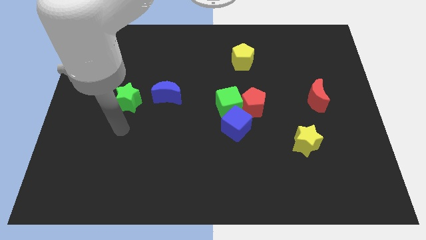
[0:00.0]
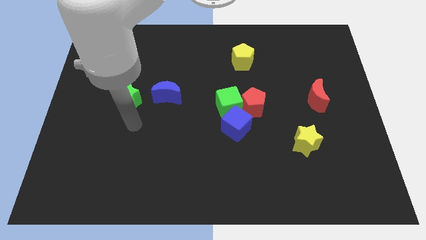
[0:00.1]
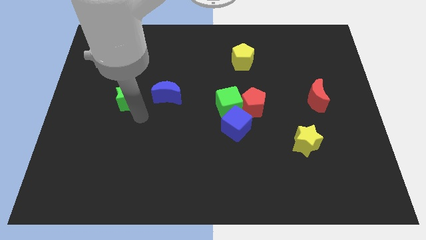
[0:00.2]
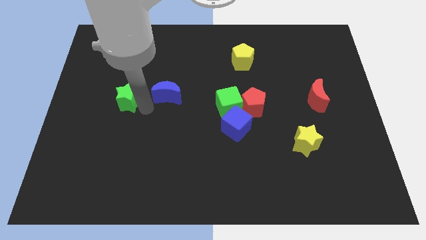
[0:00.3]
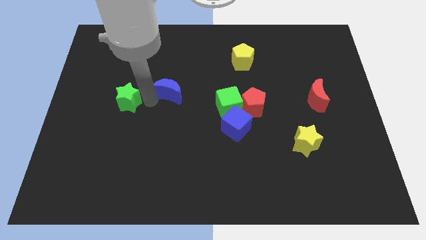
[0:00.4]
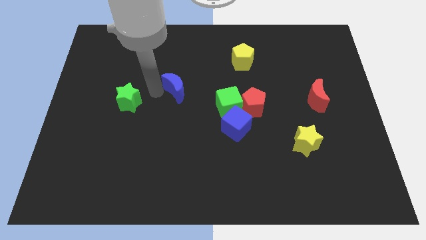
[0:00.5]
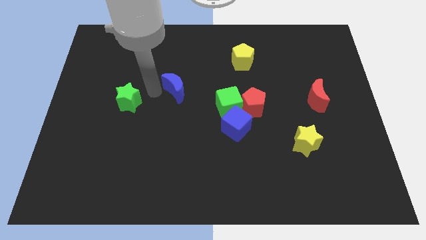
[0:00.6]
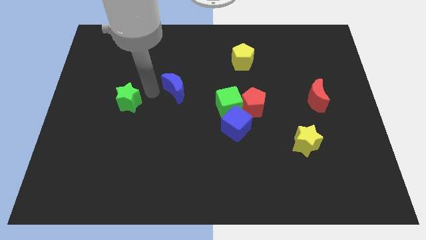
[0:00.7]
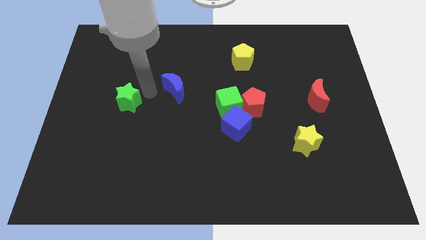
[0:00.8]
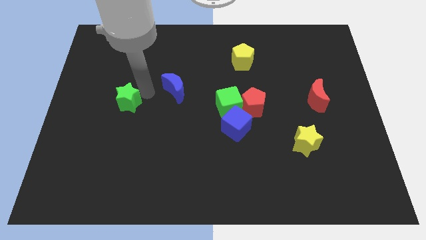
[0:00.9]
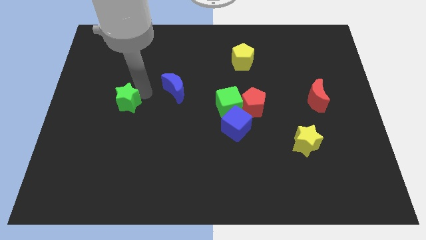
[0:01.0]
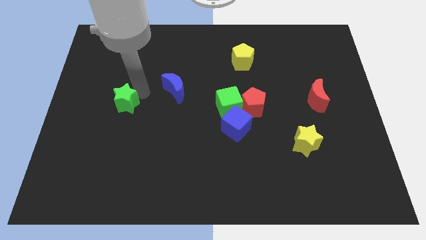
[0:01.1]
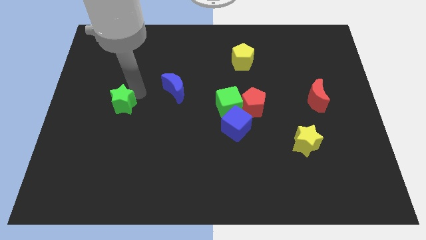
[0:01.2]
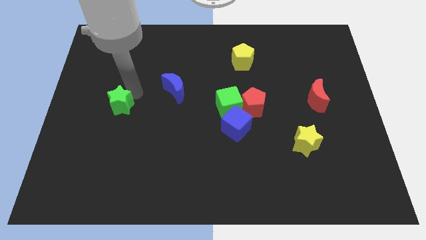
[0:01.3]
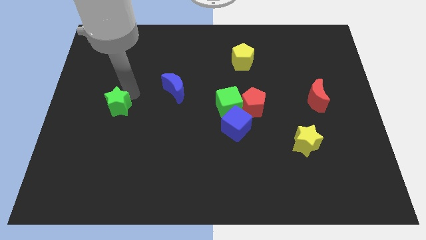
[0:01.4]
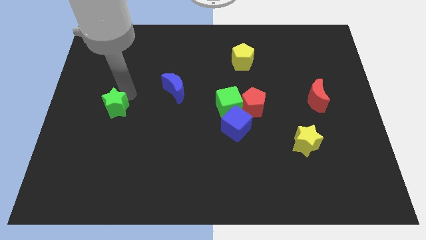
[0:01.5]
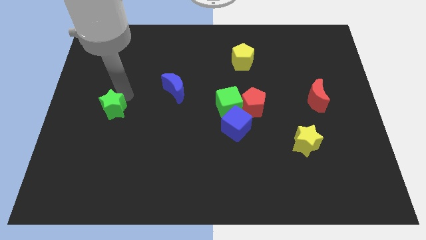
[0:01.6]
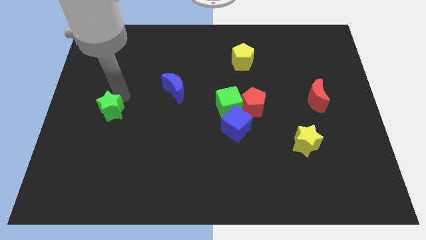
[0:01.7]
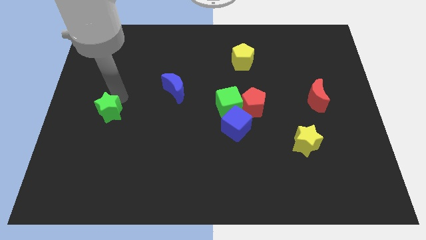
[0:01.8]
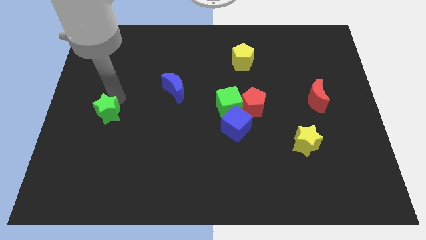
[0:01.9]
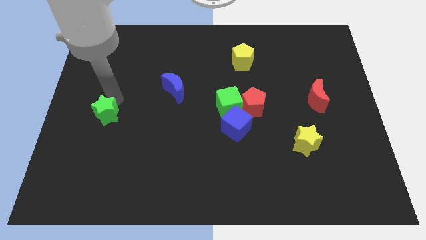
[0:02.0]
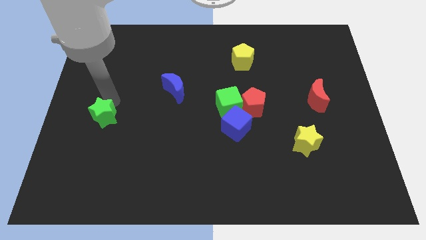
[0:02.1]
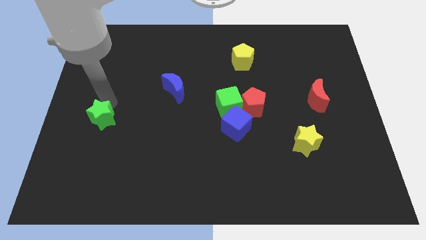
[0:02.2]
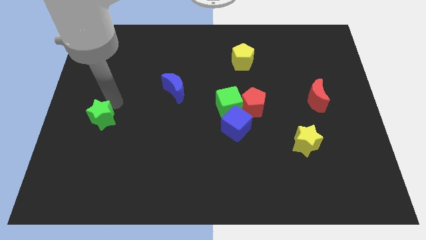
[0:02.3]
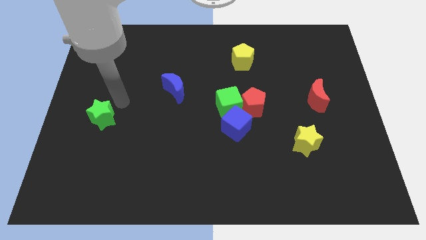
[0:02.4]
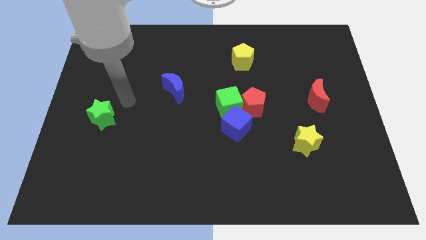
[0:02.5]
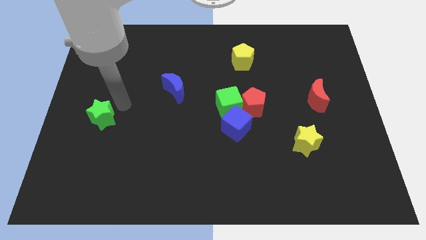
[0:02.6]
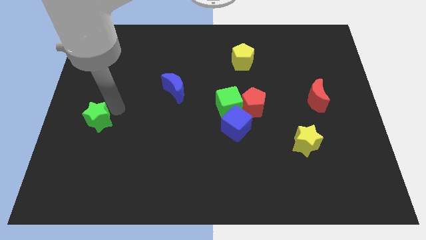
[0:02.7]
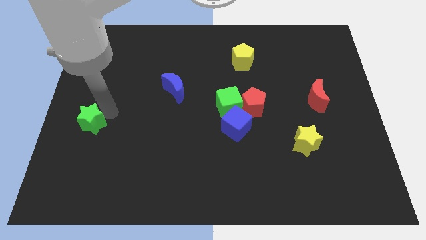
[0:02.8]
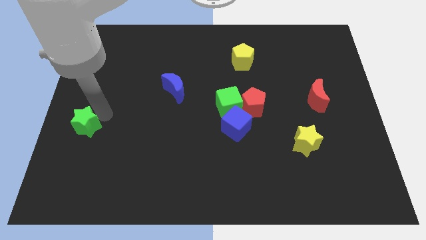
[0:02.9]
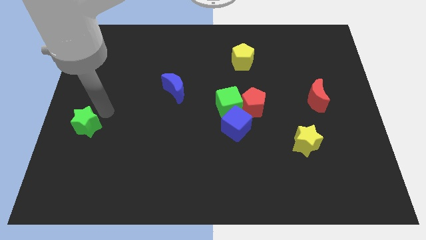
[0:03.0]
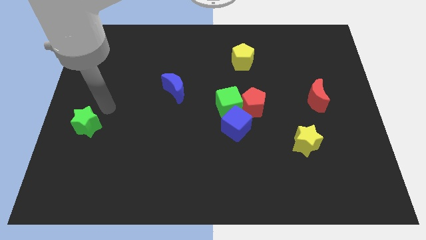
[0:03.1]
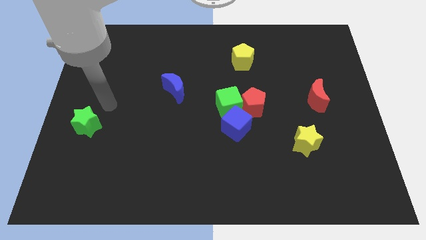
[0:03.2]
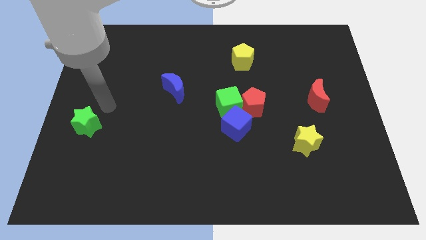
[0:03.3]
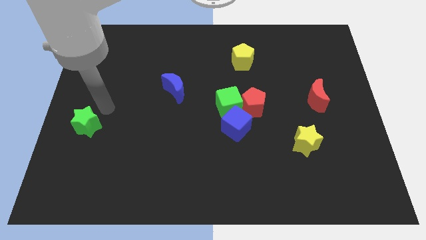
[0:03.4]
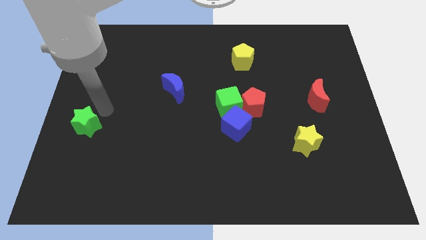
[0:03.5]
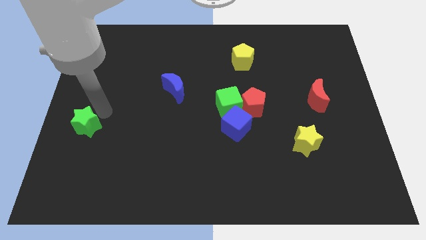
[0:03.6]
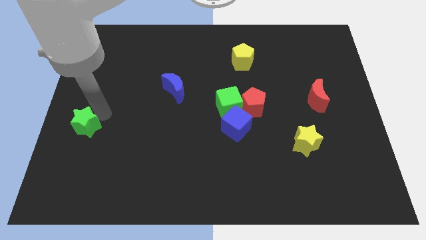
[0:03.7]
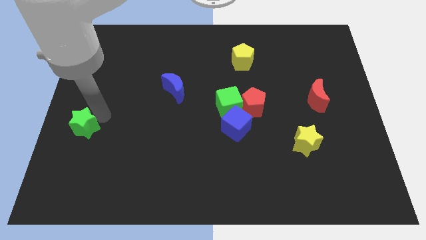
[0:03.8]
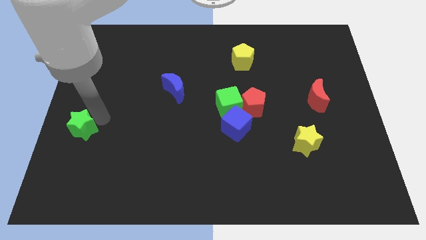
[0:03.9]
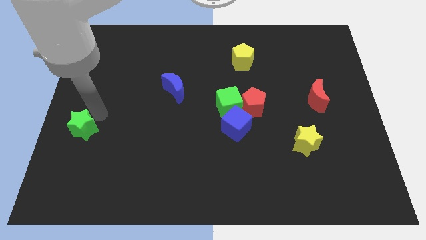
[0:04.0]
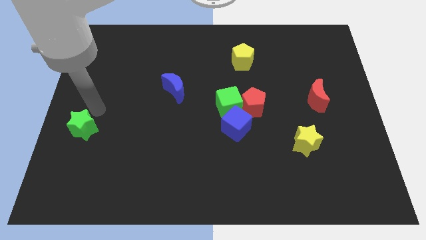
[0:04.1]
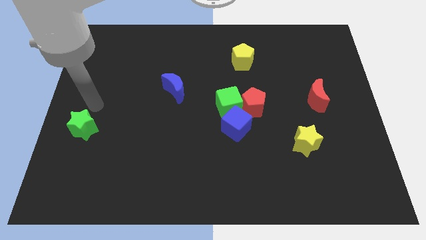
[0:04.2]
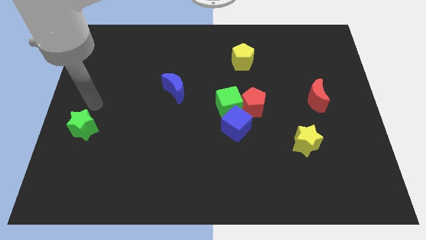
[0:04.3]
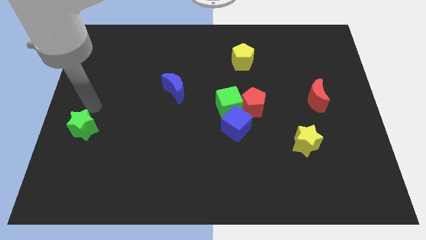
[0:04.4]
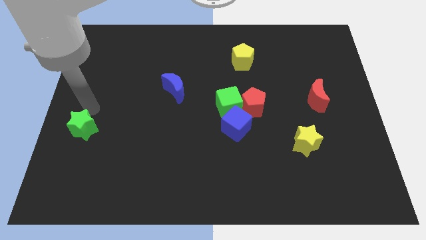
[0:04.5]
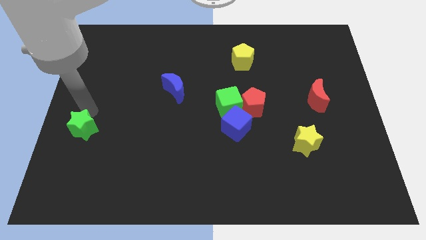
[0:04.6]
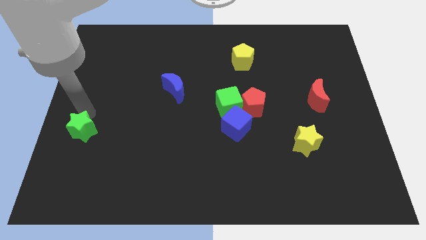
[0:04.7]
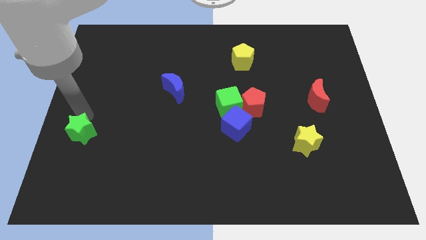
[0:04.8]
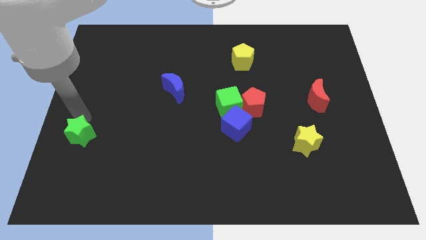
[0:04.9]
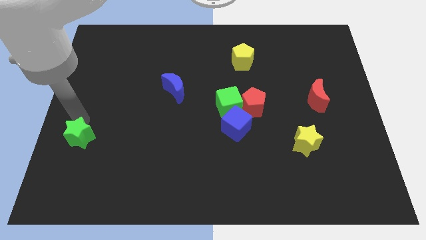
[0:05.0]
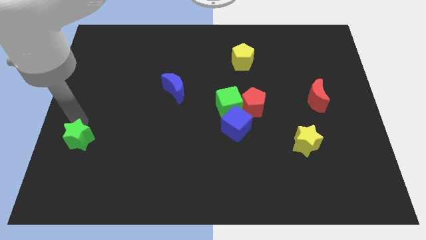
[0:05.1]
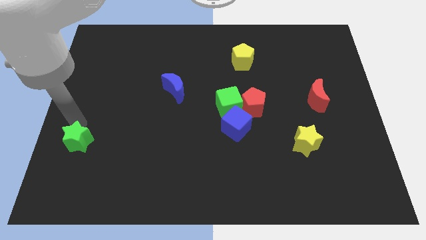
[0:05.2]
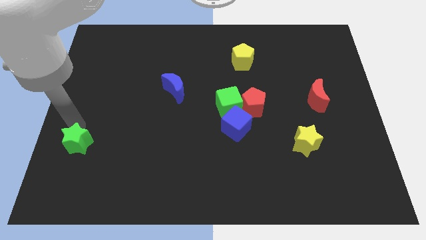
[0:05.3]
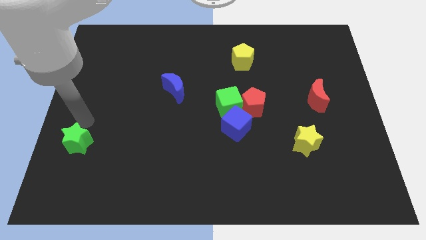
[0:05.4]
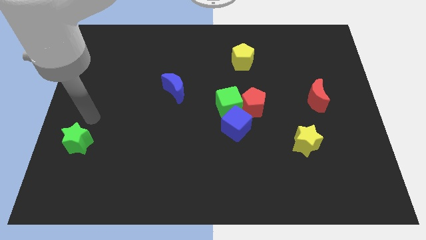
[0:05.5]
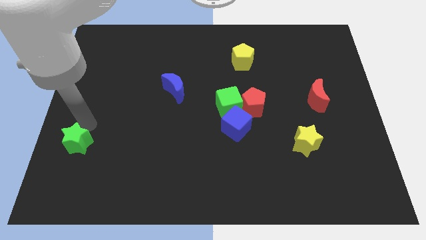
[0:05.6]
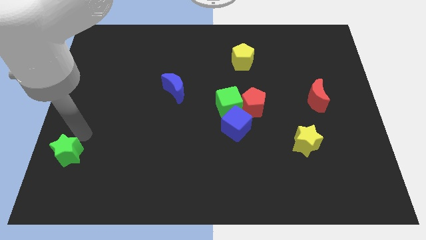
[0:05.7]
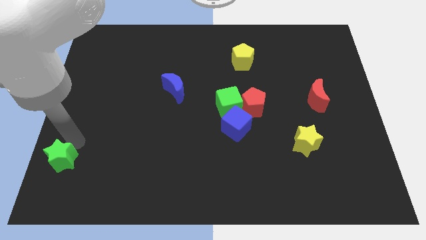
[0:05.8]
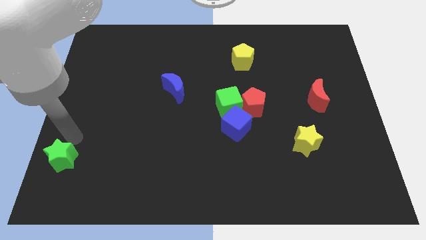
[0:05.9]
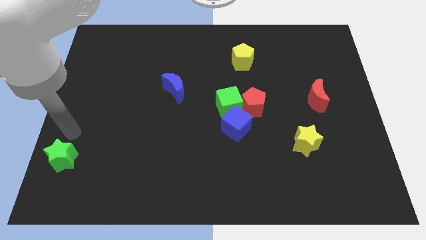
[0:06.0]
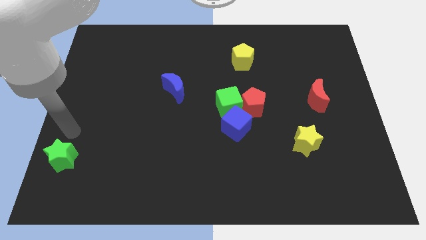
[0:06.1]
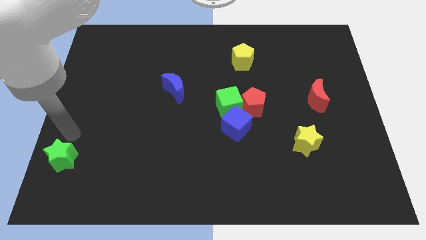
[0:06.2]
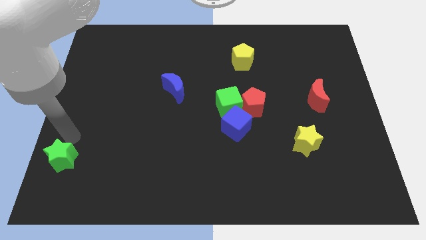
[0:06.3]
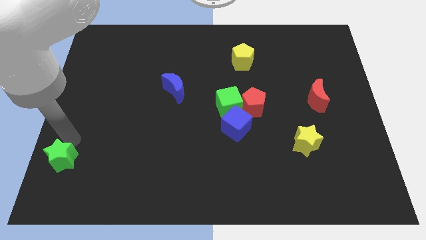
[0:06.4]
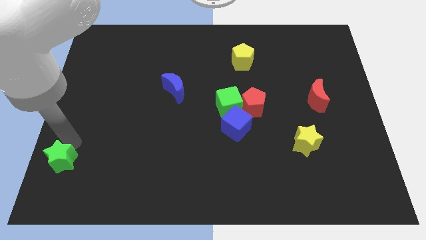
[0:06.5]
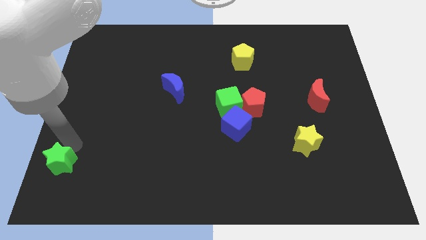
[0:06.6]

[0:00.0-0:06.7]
move the green star to the bottom left of the board
